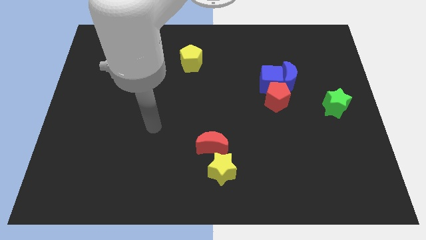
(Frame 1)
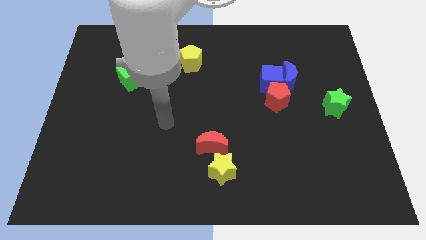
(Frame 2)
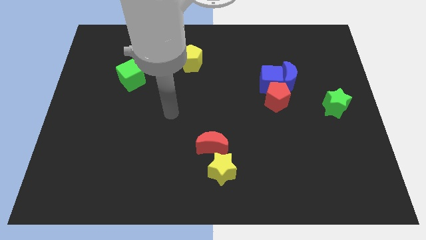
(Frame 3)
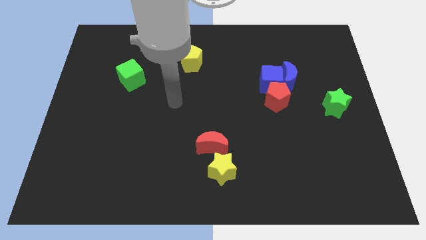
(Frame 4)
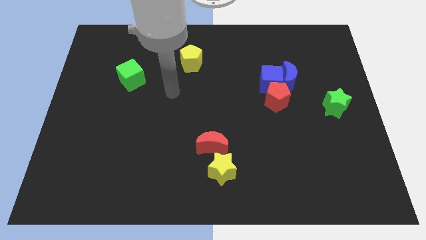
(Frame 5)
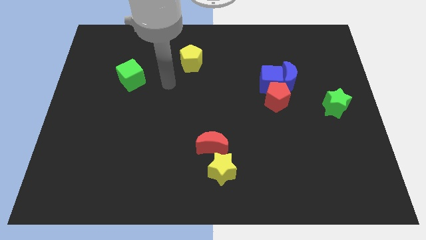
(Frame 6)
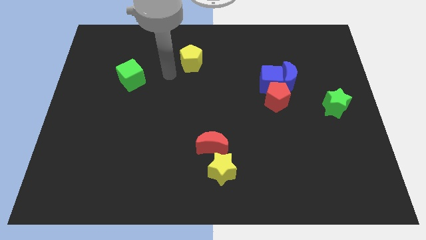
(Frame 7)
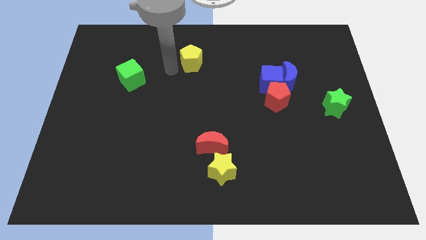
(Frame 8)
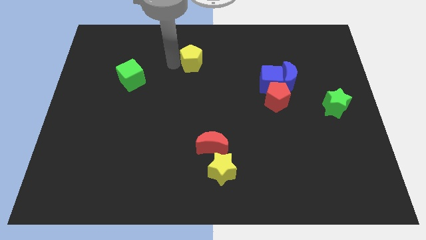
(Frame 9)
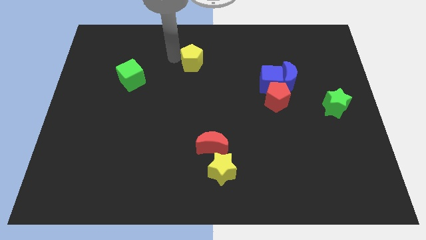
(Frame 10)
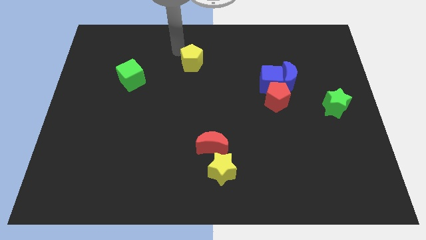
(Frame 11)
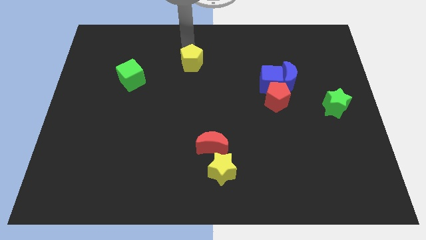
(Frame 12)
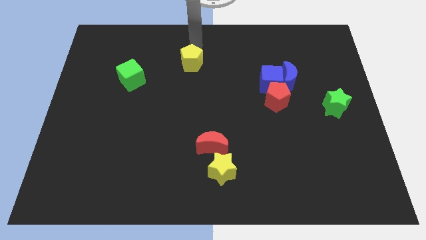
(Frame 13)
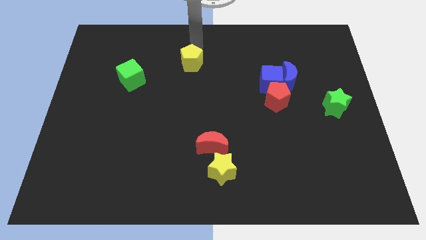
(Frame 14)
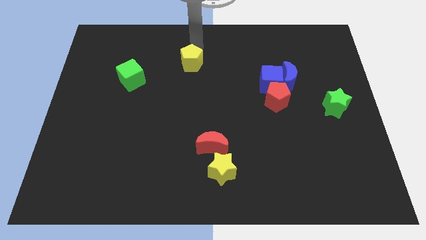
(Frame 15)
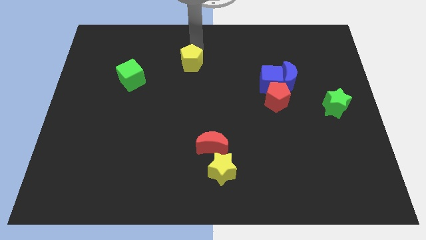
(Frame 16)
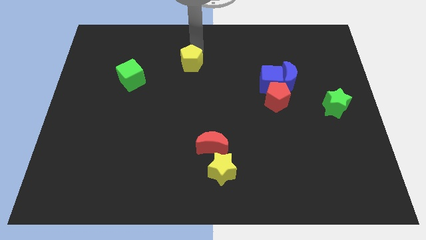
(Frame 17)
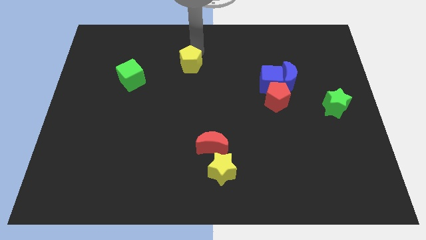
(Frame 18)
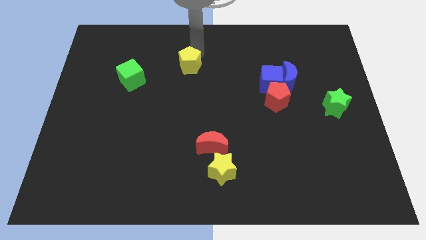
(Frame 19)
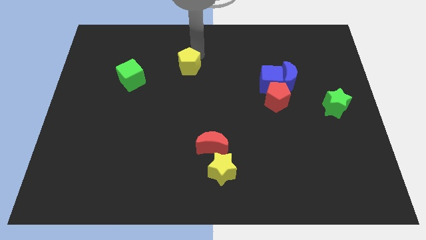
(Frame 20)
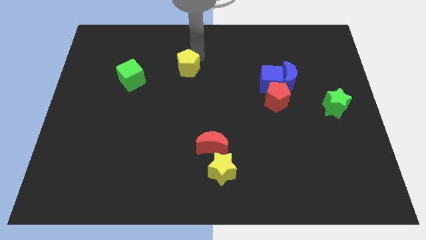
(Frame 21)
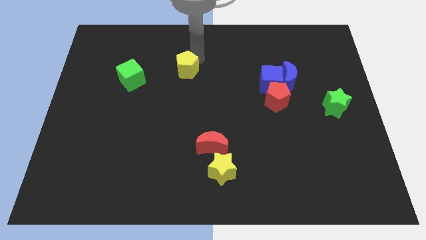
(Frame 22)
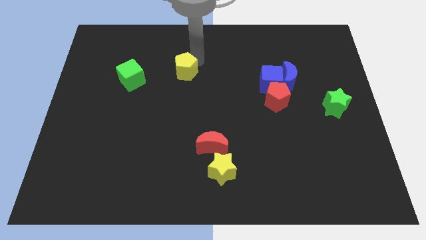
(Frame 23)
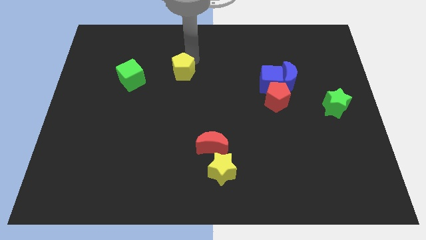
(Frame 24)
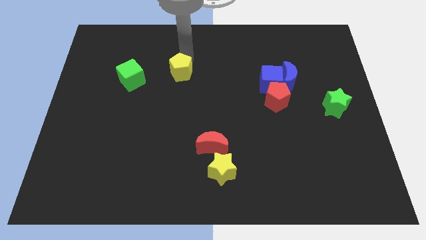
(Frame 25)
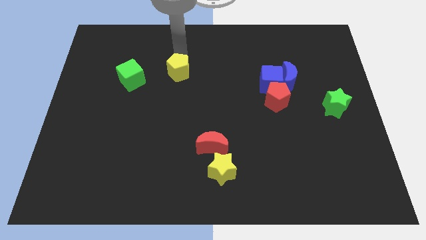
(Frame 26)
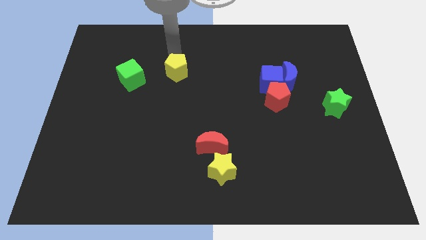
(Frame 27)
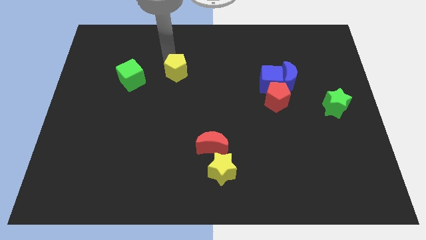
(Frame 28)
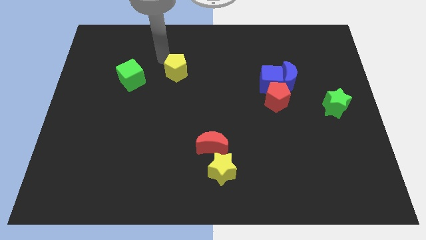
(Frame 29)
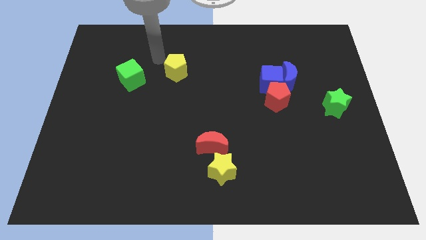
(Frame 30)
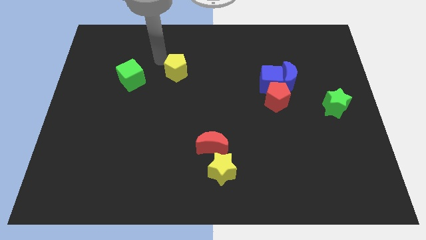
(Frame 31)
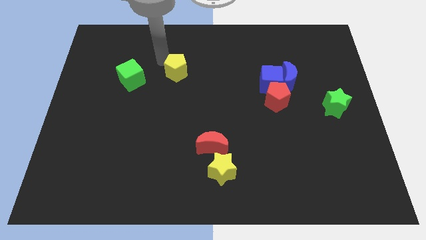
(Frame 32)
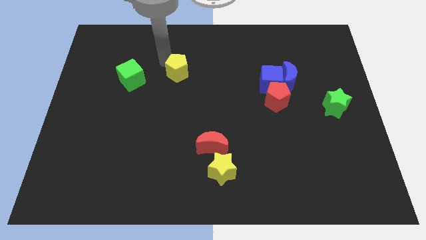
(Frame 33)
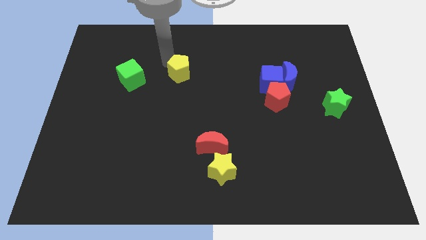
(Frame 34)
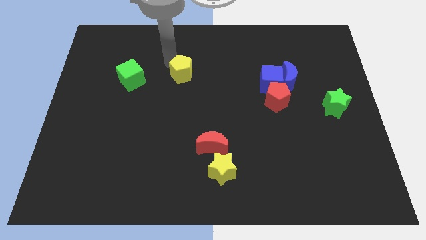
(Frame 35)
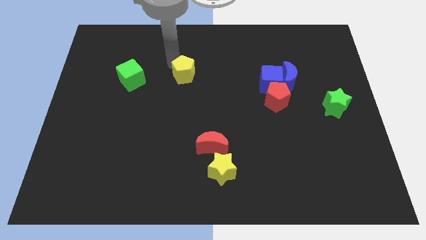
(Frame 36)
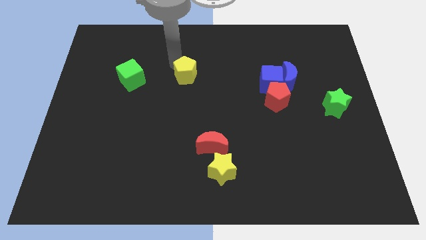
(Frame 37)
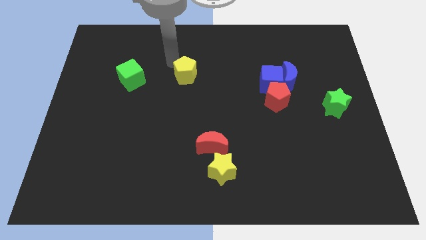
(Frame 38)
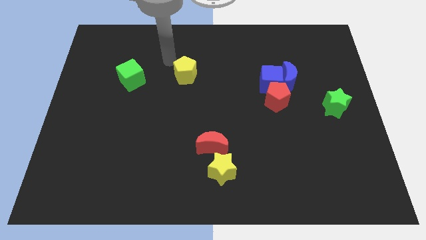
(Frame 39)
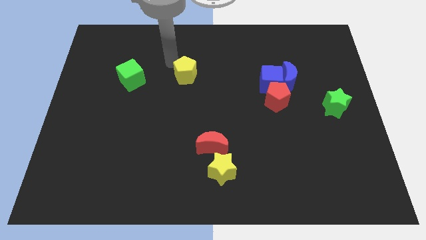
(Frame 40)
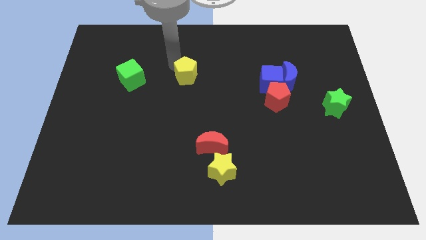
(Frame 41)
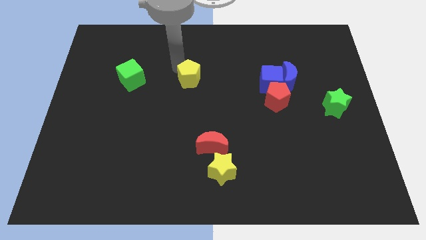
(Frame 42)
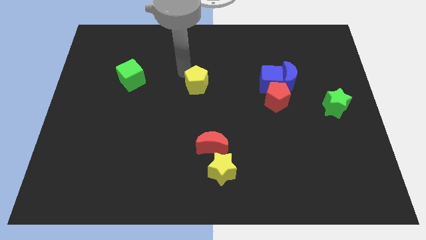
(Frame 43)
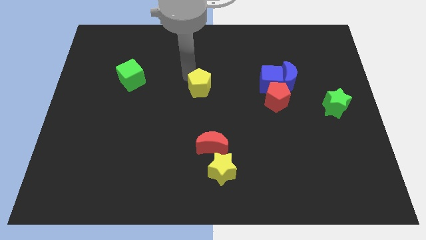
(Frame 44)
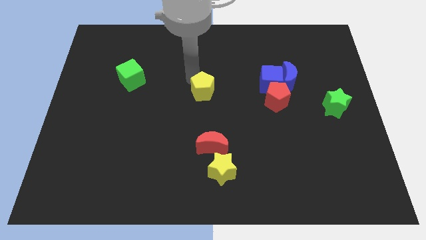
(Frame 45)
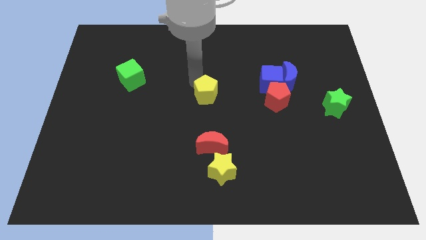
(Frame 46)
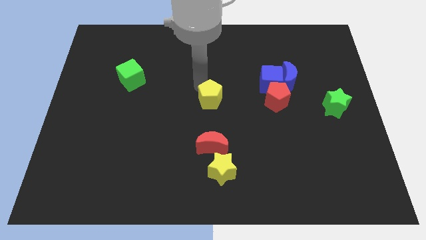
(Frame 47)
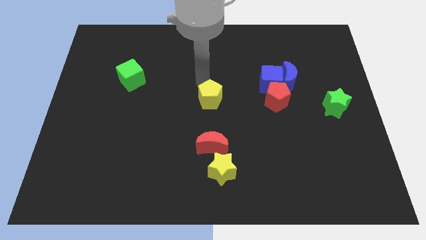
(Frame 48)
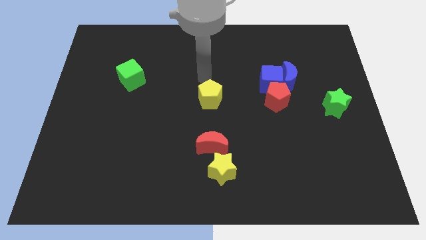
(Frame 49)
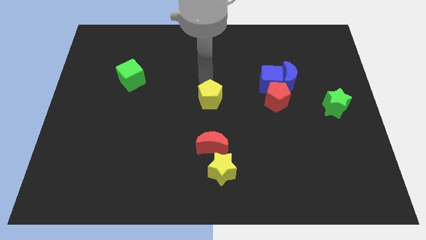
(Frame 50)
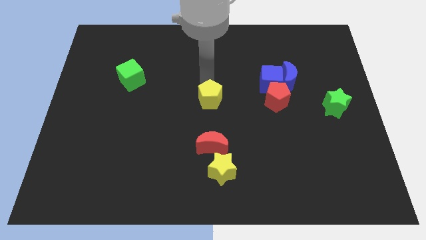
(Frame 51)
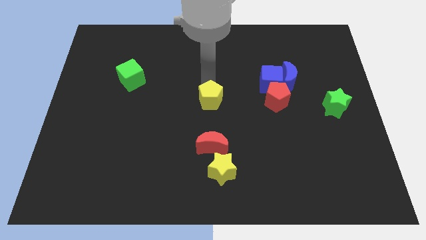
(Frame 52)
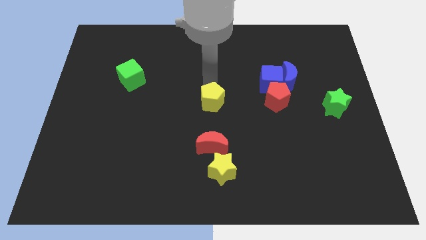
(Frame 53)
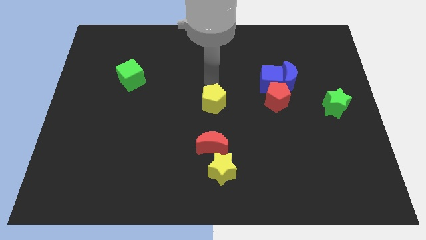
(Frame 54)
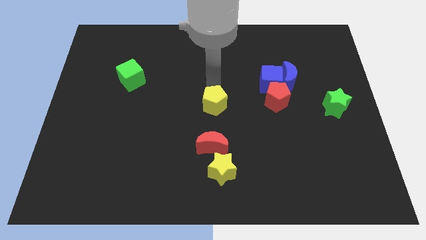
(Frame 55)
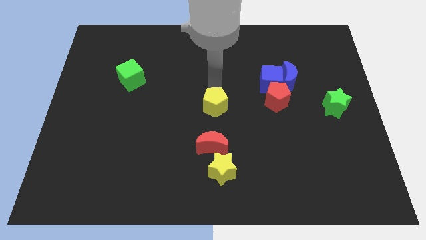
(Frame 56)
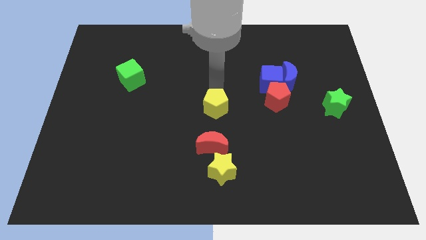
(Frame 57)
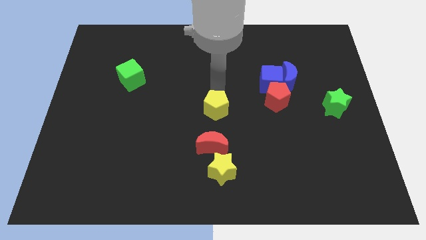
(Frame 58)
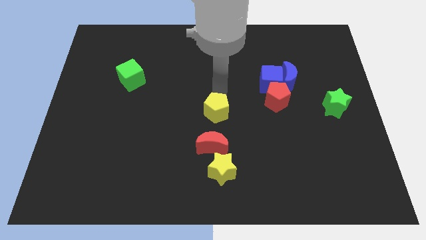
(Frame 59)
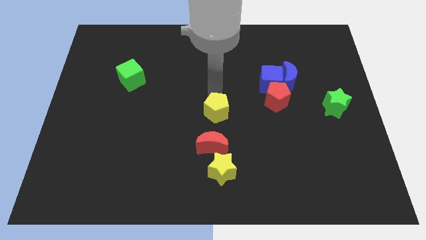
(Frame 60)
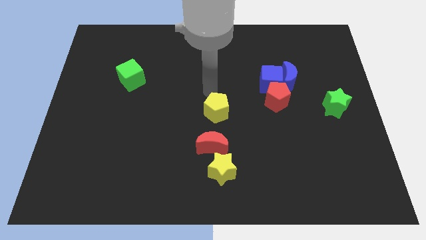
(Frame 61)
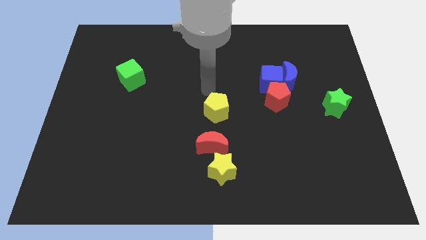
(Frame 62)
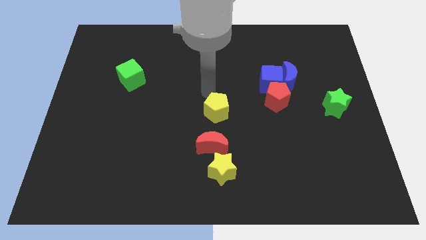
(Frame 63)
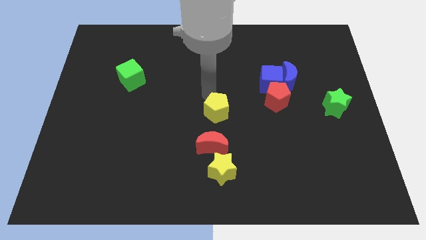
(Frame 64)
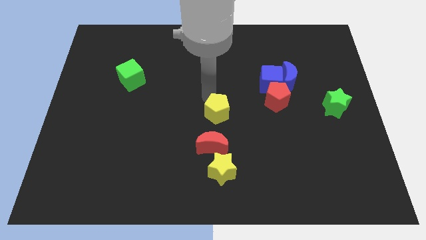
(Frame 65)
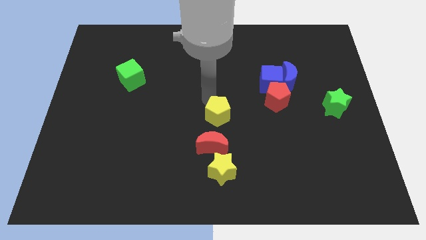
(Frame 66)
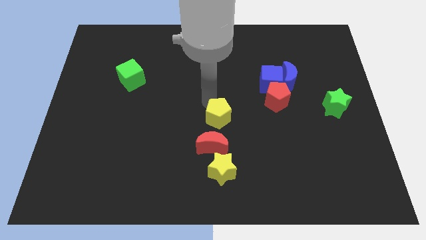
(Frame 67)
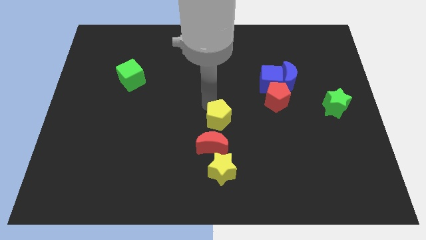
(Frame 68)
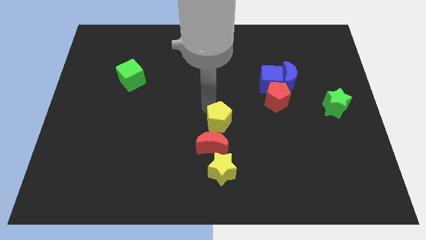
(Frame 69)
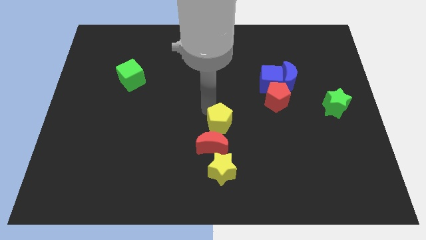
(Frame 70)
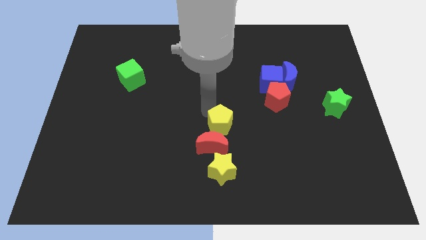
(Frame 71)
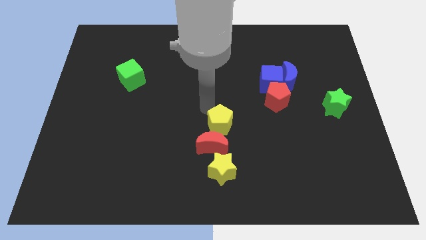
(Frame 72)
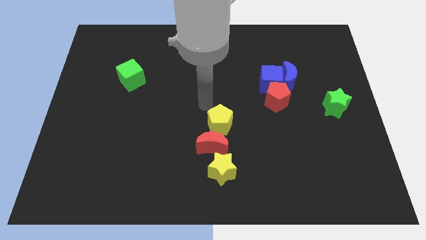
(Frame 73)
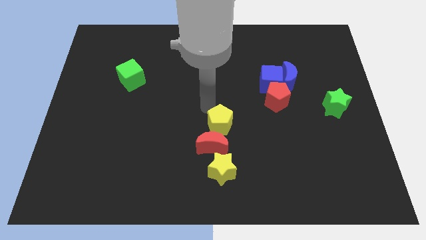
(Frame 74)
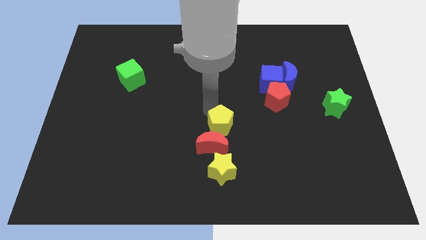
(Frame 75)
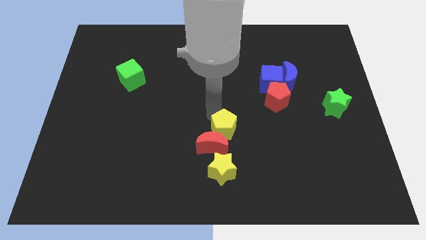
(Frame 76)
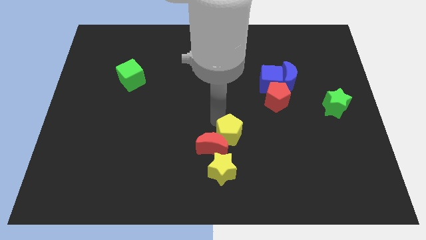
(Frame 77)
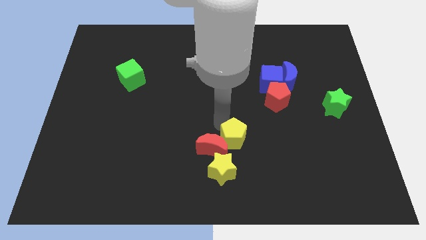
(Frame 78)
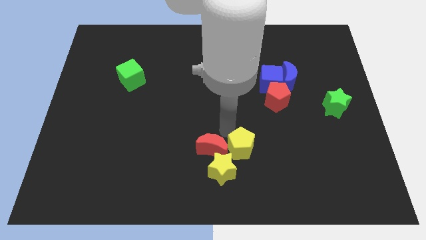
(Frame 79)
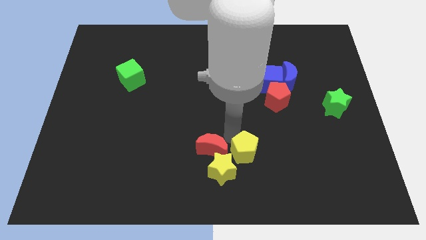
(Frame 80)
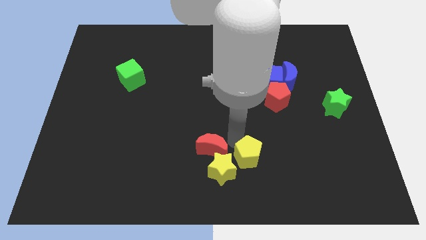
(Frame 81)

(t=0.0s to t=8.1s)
push the yellow pentagon to the right of the yellow star
